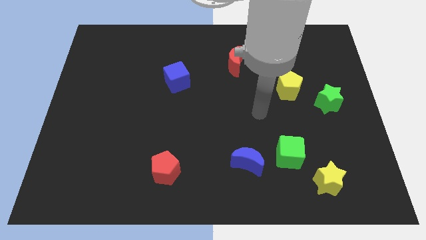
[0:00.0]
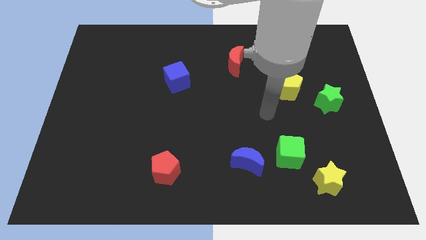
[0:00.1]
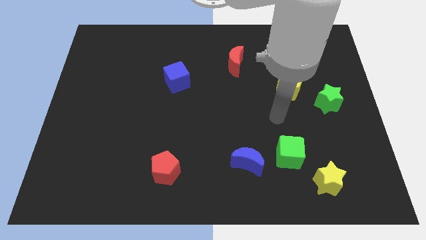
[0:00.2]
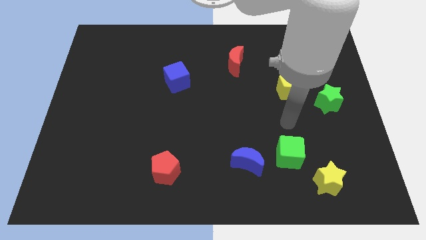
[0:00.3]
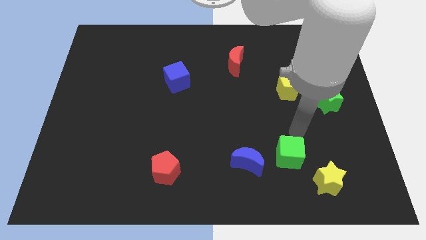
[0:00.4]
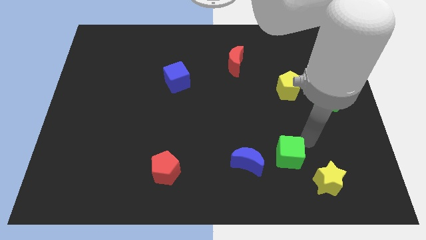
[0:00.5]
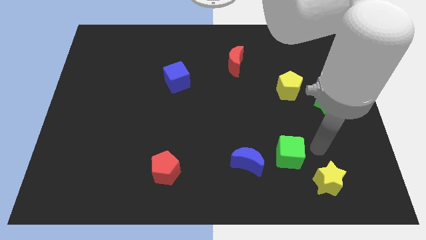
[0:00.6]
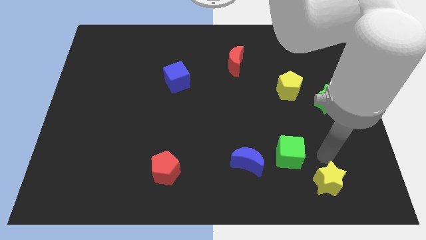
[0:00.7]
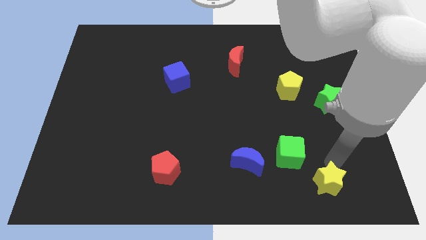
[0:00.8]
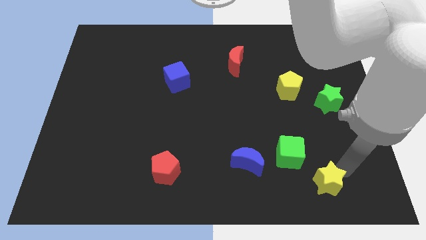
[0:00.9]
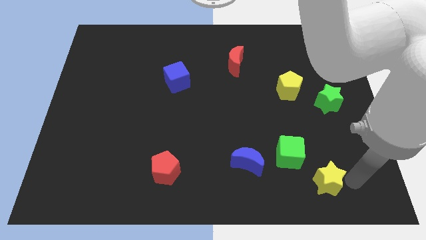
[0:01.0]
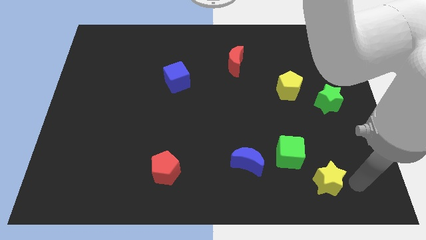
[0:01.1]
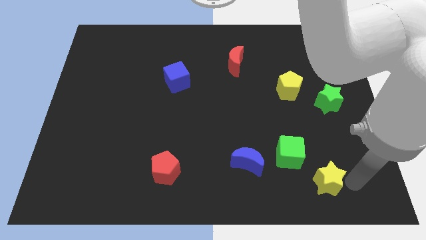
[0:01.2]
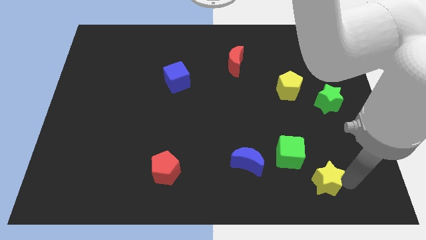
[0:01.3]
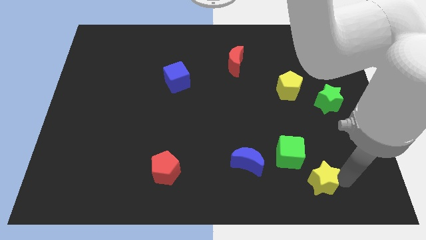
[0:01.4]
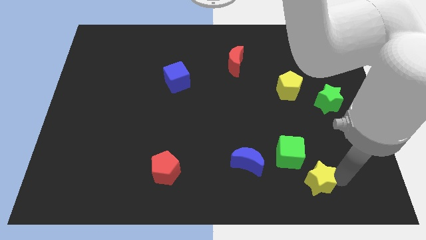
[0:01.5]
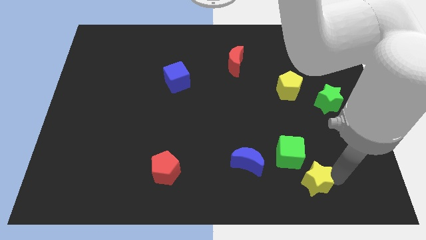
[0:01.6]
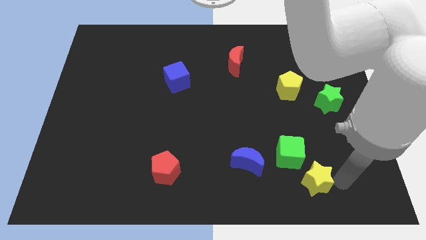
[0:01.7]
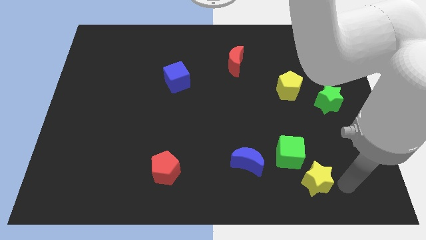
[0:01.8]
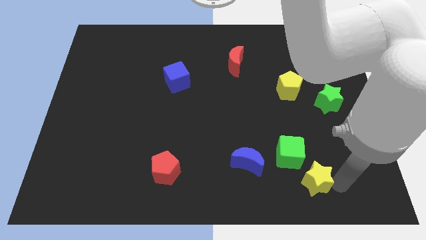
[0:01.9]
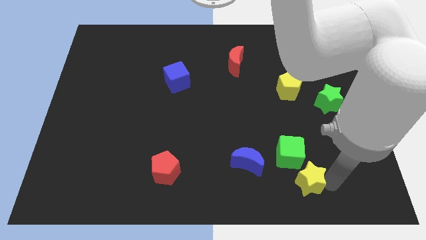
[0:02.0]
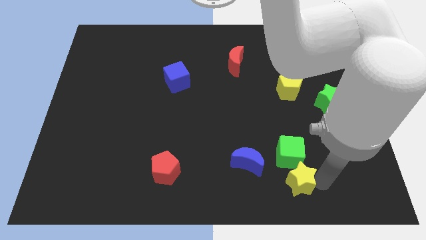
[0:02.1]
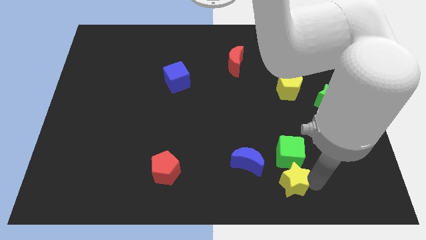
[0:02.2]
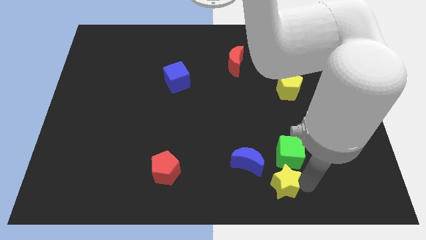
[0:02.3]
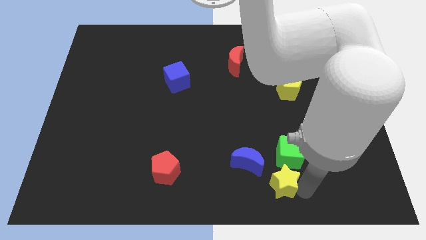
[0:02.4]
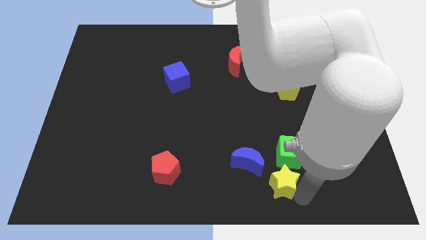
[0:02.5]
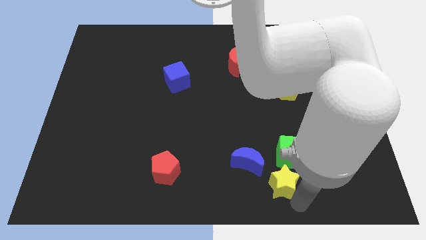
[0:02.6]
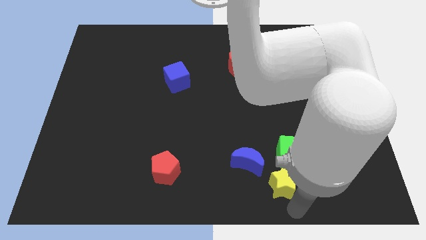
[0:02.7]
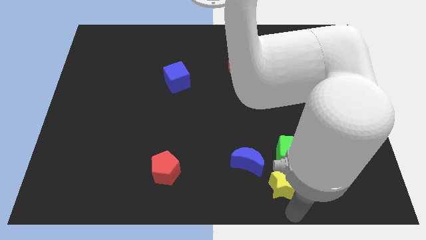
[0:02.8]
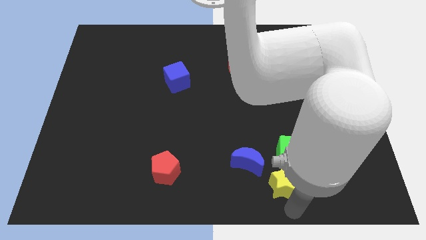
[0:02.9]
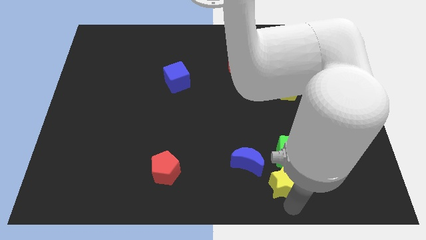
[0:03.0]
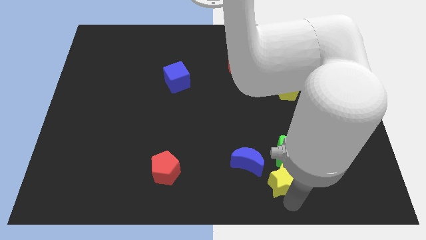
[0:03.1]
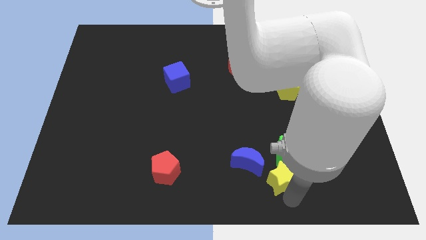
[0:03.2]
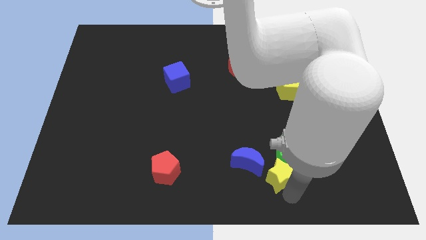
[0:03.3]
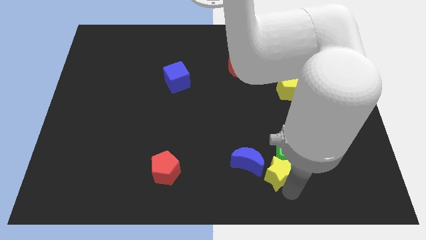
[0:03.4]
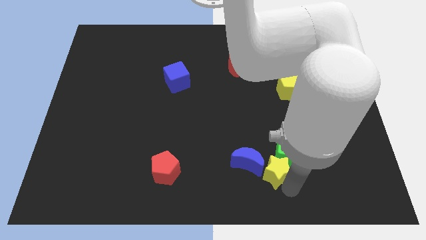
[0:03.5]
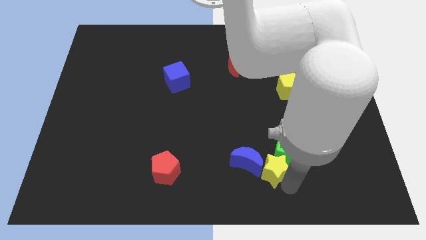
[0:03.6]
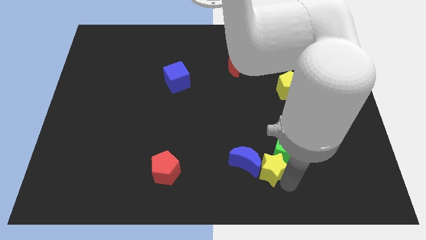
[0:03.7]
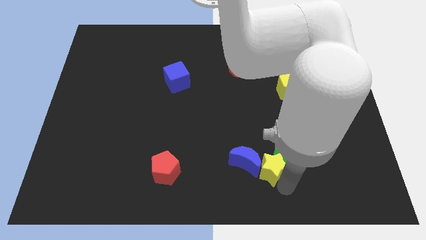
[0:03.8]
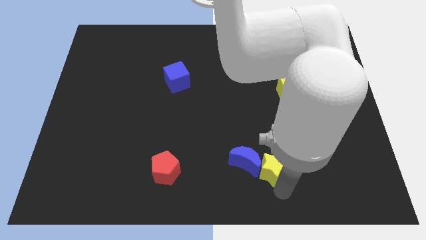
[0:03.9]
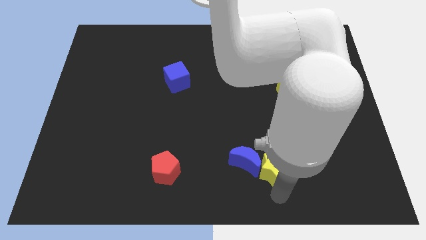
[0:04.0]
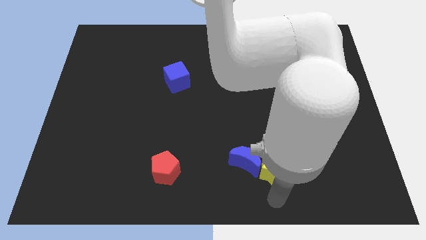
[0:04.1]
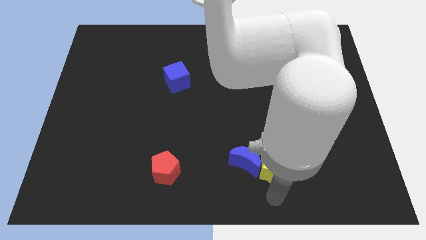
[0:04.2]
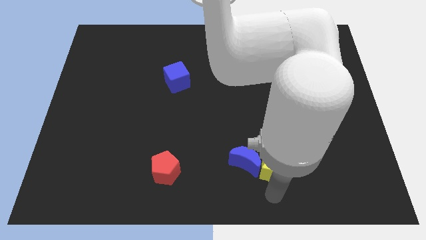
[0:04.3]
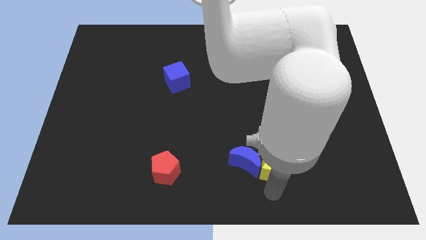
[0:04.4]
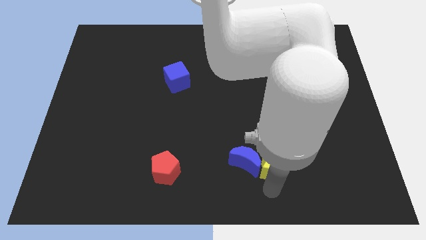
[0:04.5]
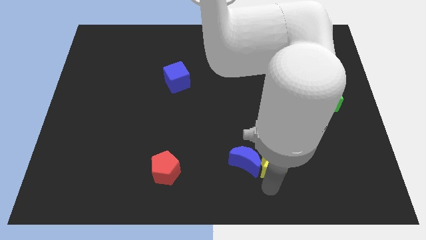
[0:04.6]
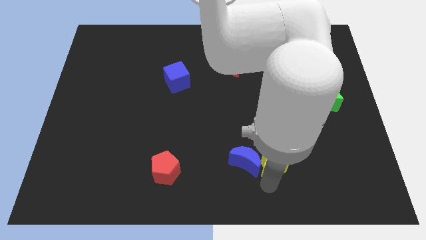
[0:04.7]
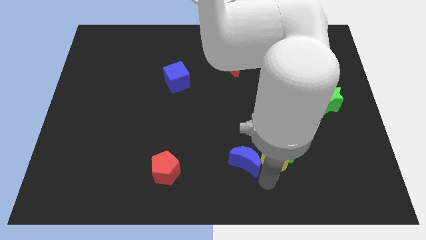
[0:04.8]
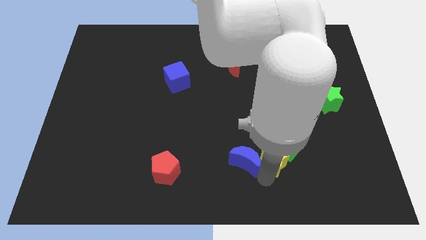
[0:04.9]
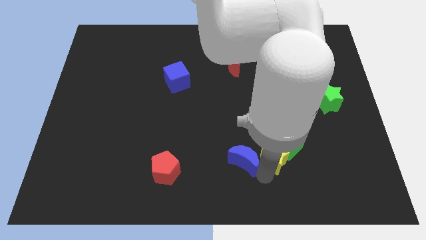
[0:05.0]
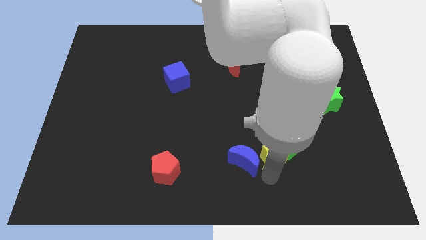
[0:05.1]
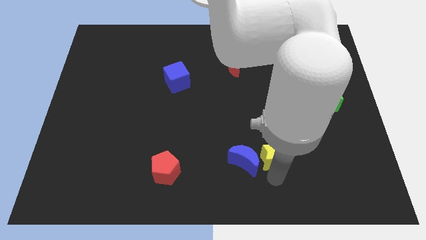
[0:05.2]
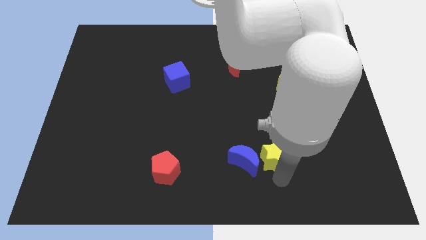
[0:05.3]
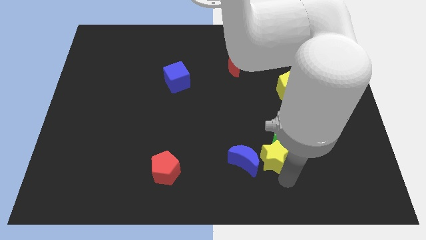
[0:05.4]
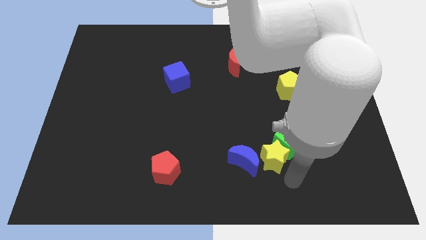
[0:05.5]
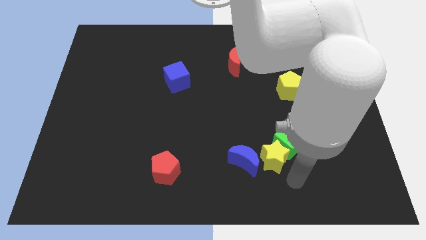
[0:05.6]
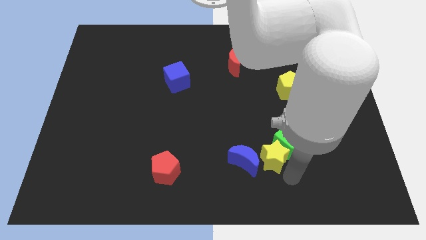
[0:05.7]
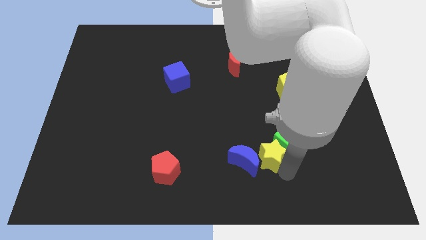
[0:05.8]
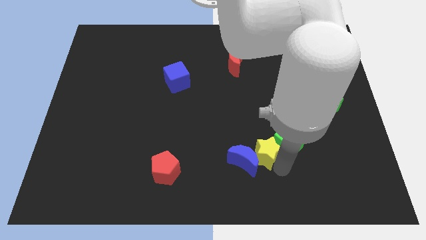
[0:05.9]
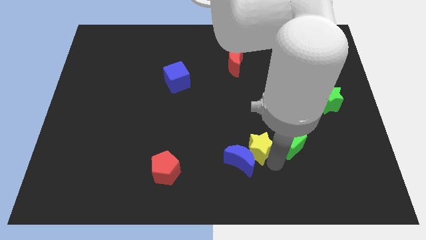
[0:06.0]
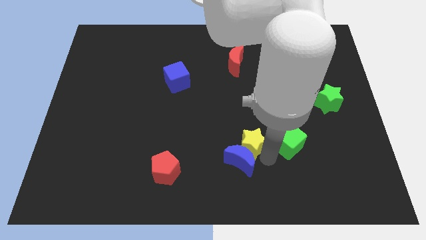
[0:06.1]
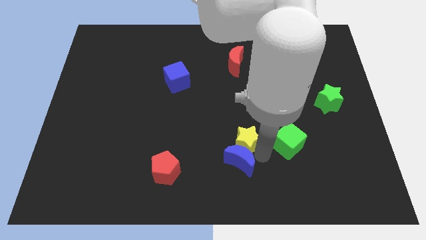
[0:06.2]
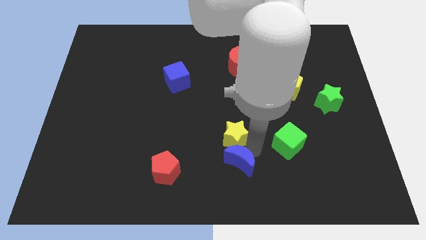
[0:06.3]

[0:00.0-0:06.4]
put the yellow star to the middle of the board

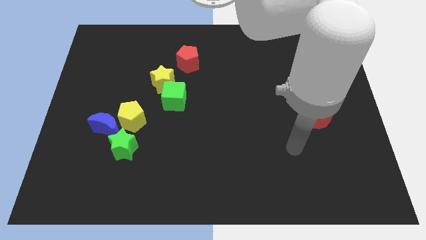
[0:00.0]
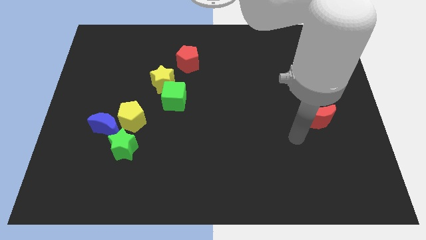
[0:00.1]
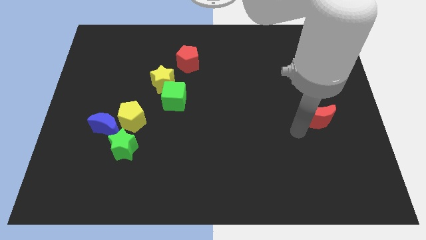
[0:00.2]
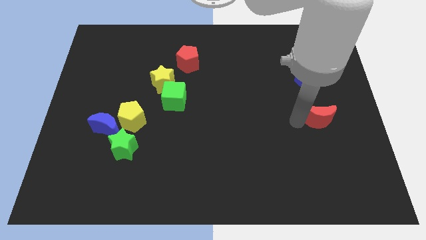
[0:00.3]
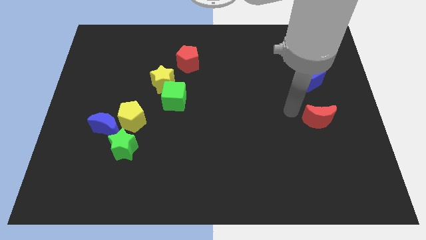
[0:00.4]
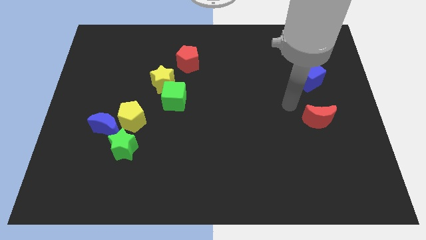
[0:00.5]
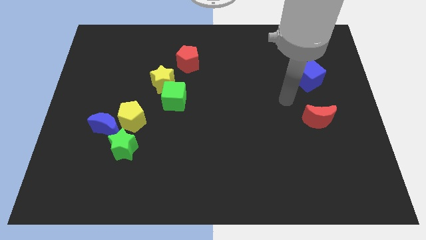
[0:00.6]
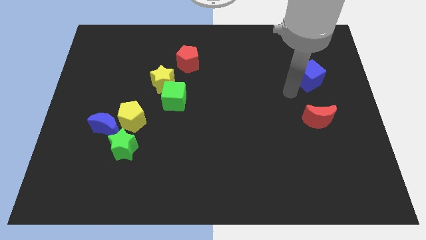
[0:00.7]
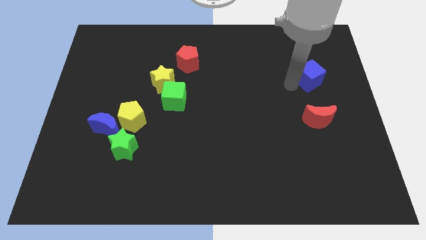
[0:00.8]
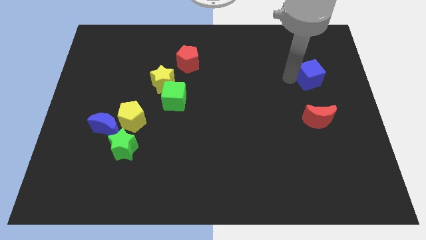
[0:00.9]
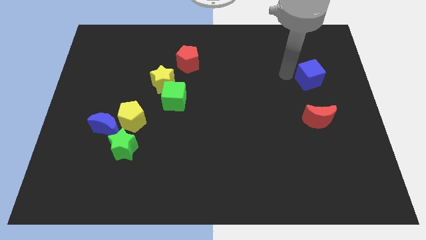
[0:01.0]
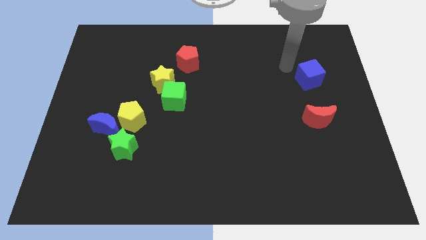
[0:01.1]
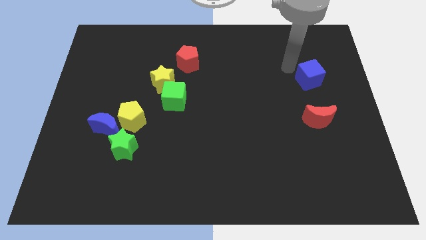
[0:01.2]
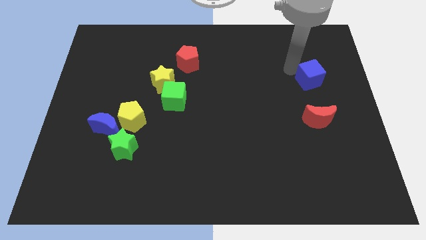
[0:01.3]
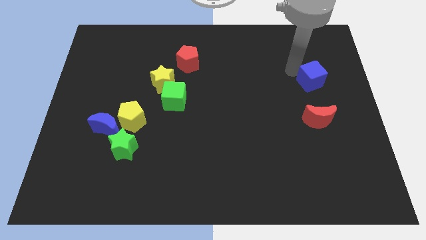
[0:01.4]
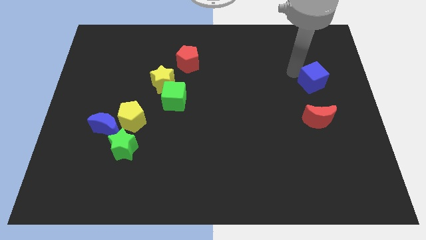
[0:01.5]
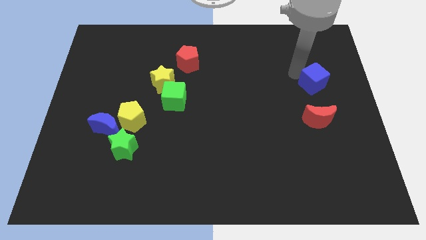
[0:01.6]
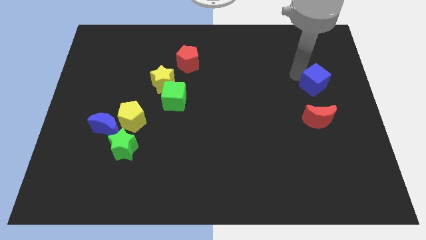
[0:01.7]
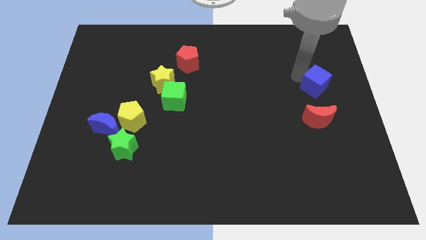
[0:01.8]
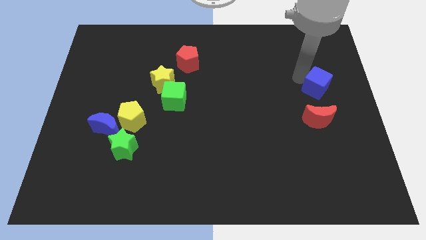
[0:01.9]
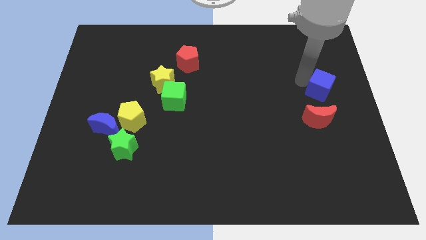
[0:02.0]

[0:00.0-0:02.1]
slide the blue cube to the right side
